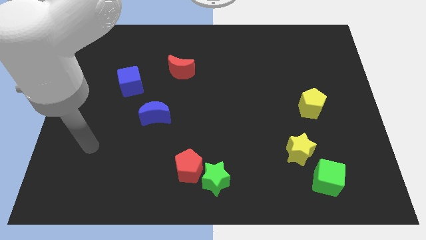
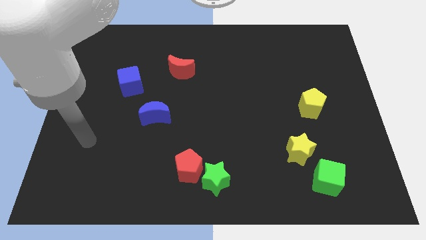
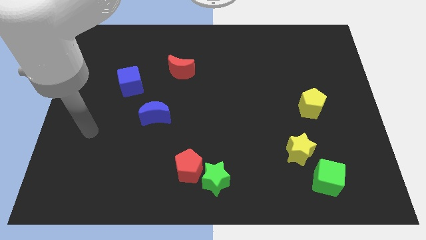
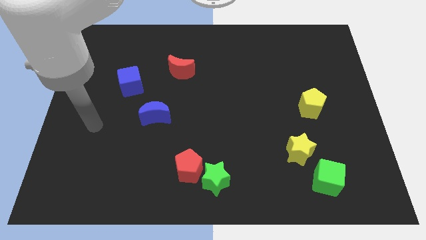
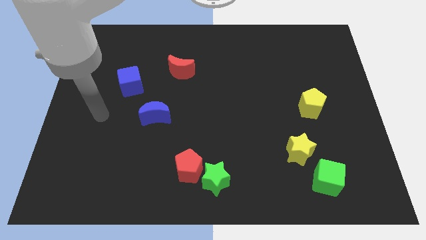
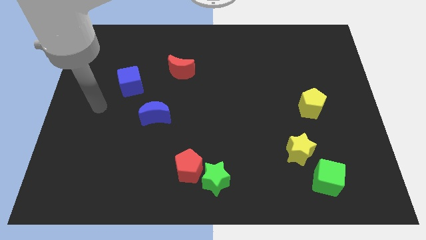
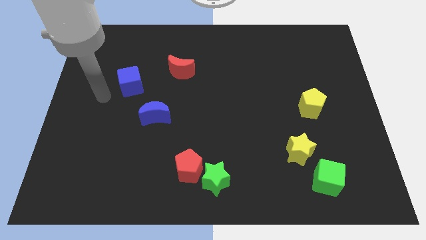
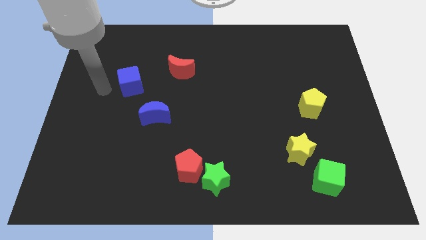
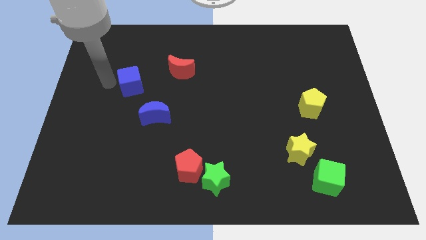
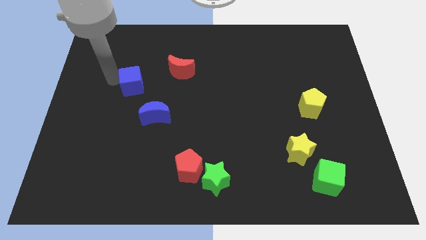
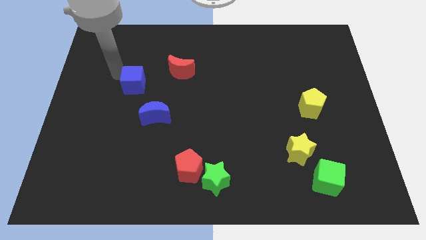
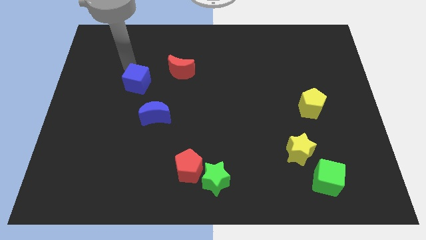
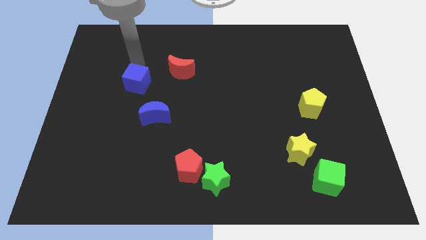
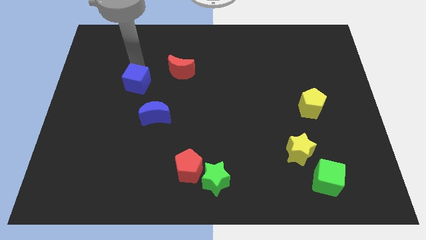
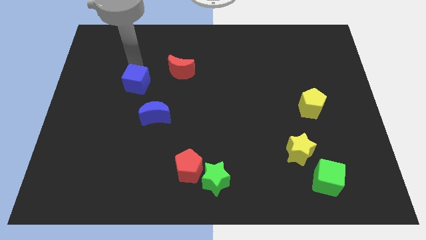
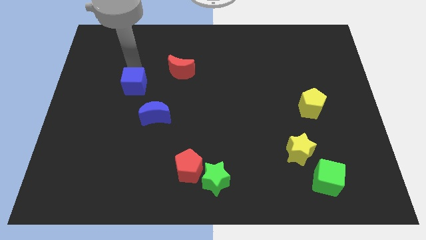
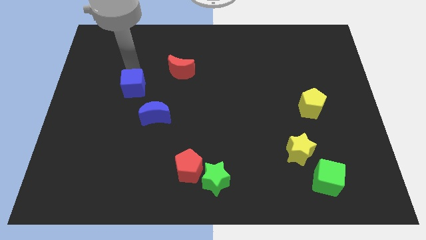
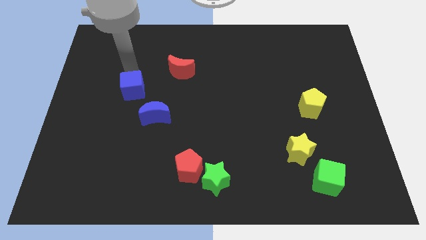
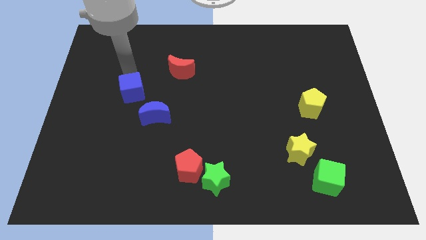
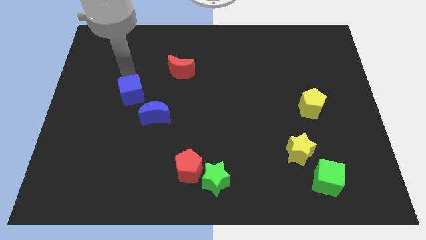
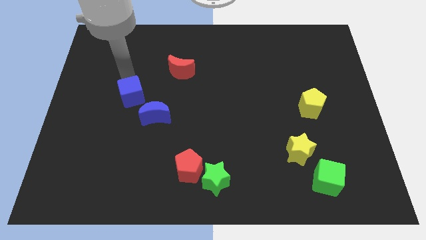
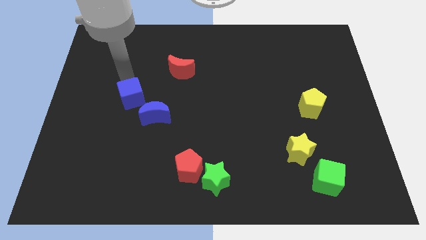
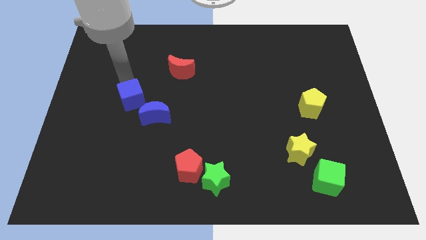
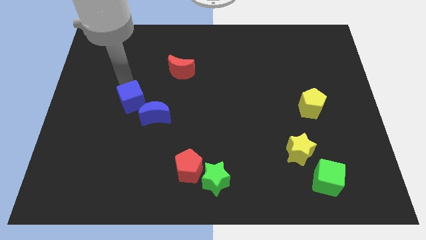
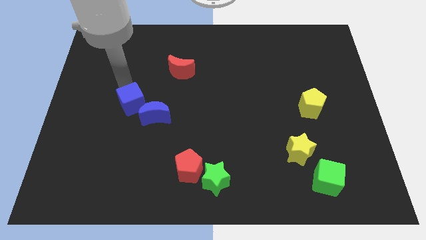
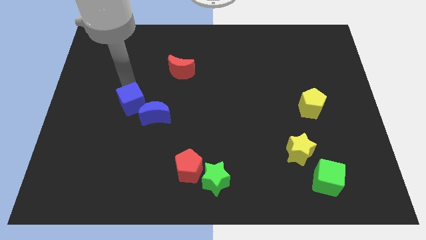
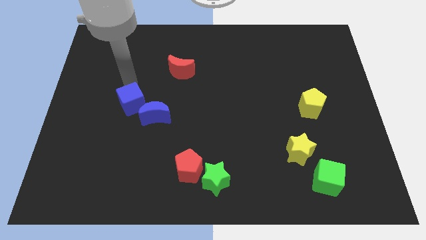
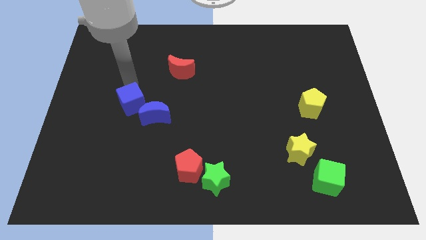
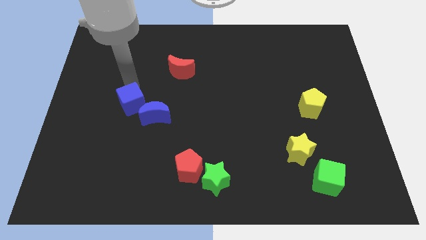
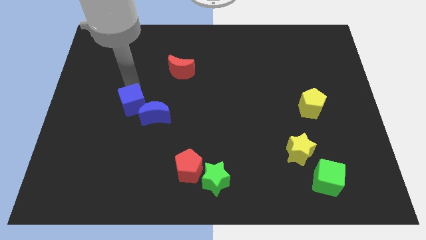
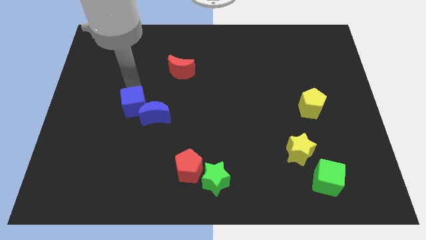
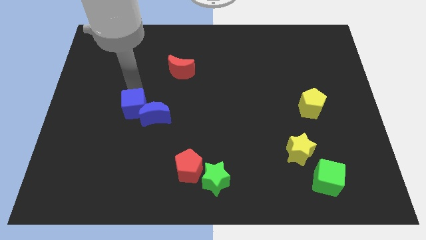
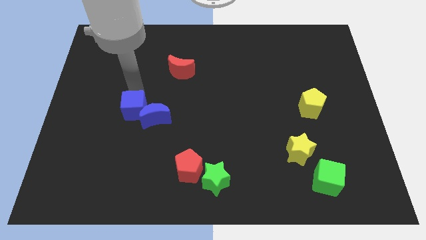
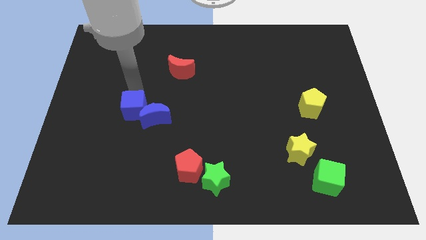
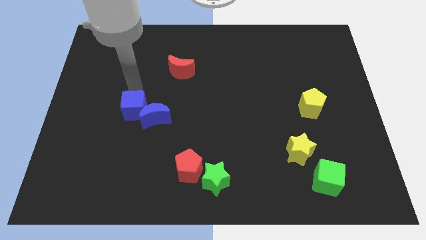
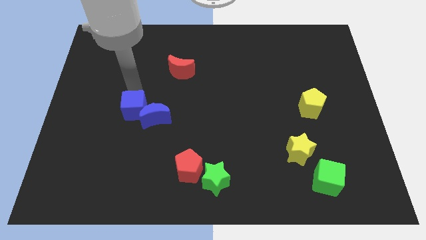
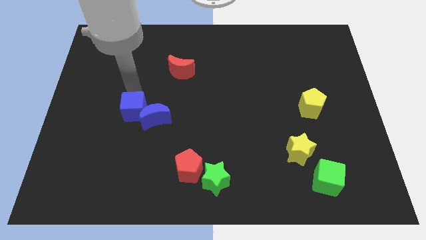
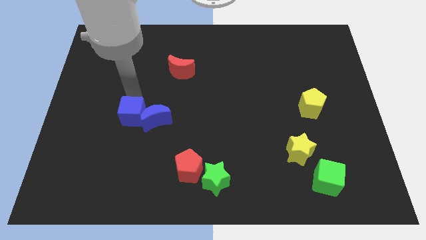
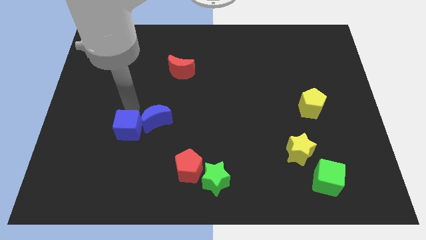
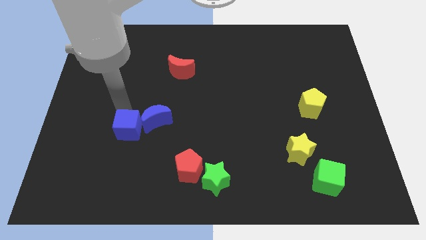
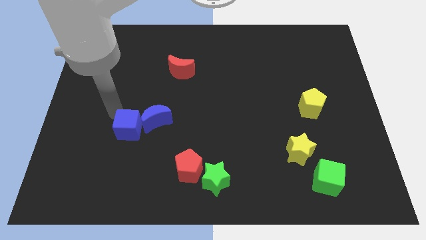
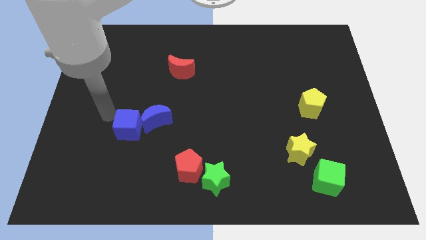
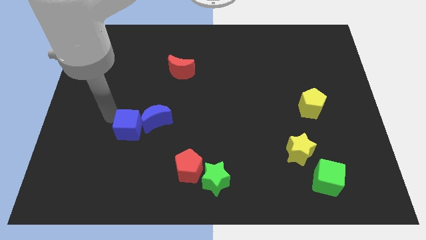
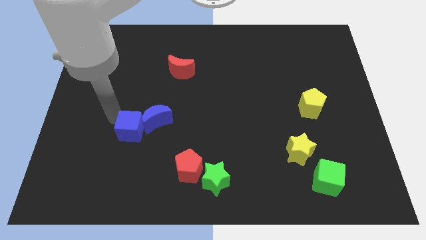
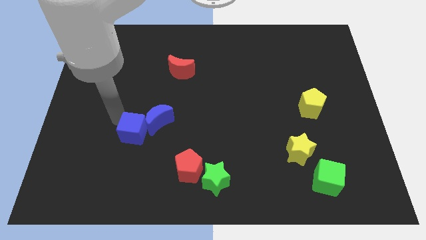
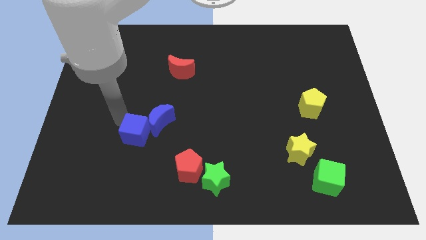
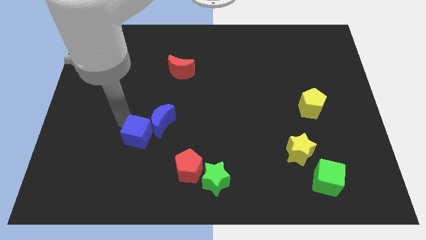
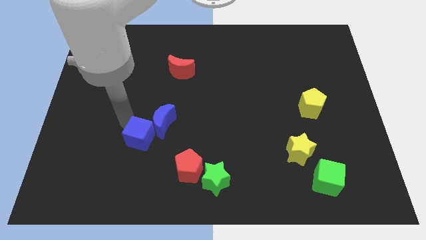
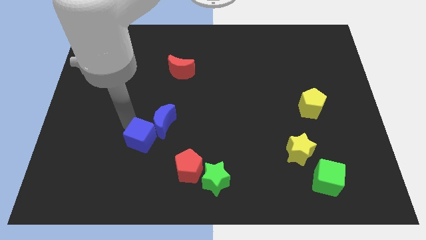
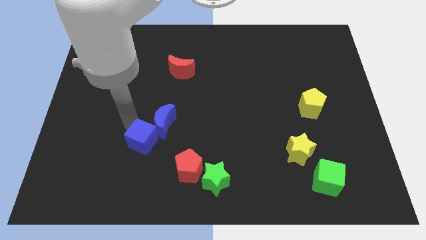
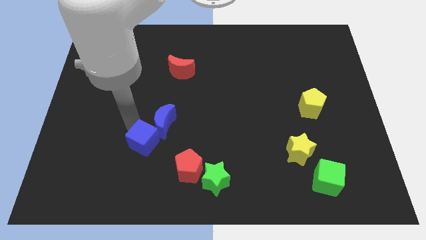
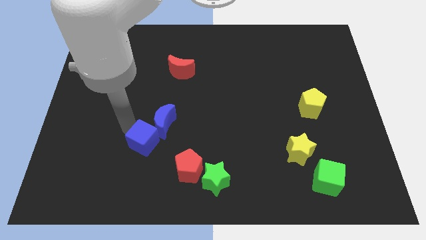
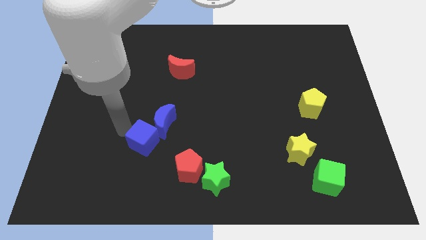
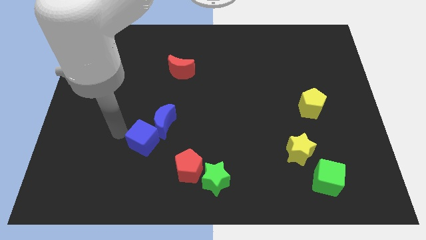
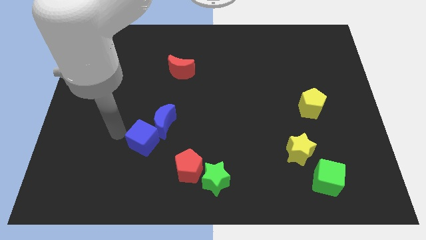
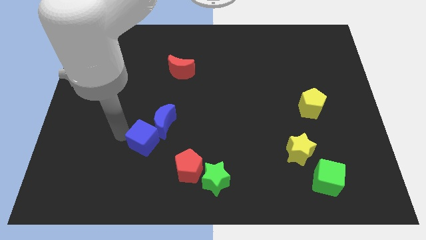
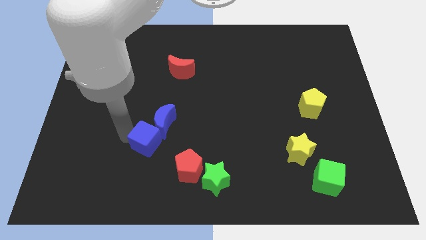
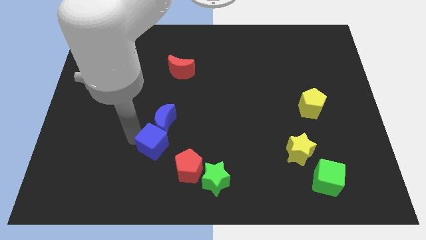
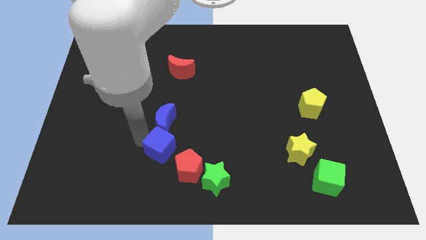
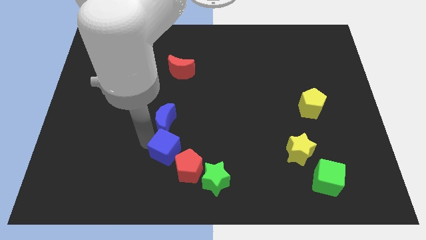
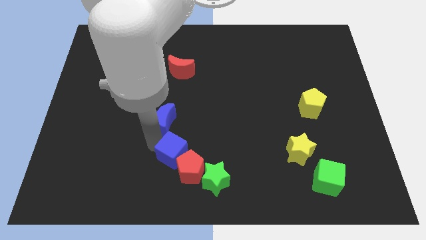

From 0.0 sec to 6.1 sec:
push the blue cube towards the red pentagon

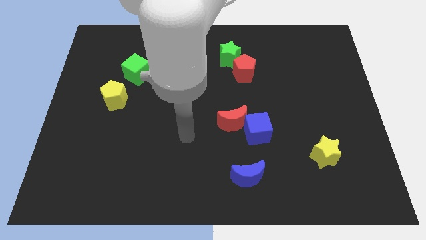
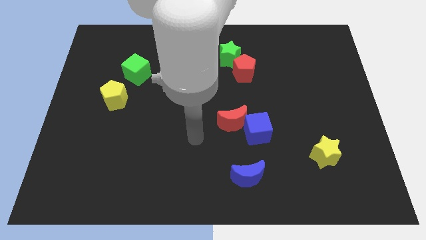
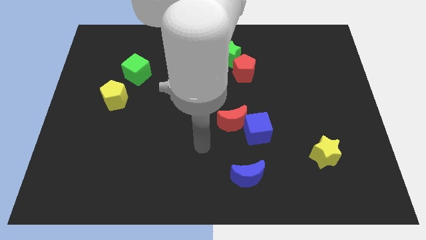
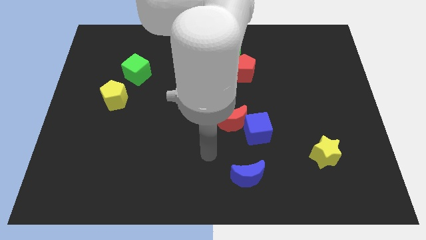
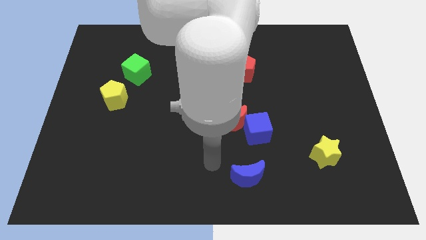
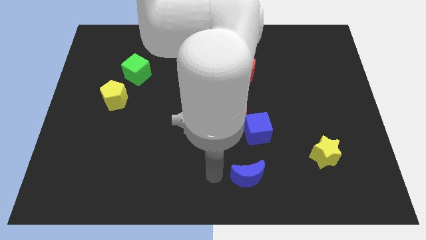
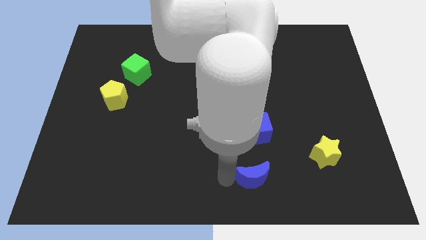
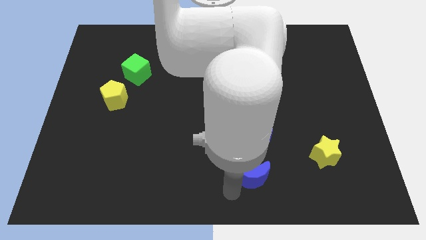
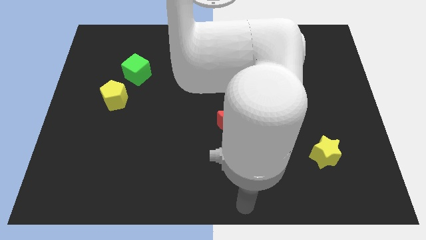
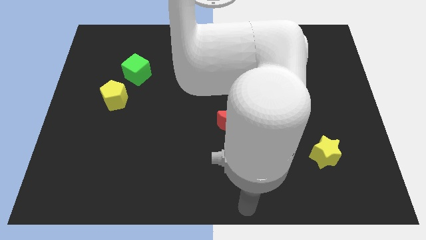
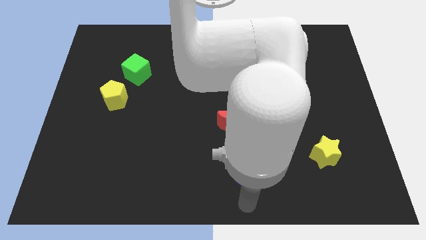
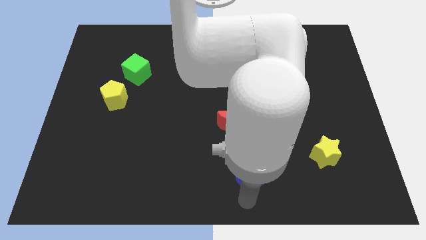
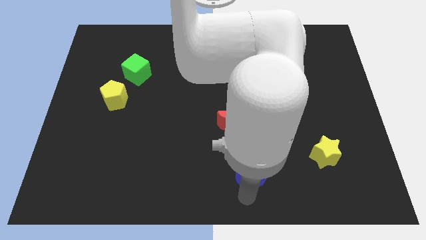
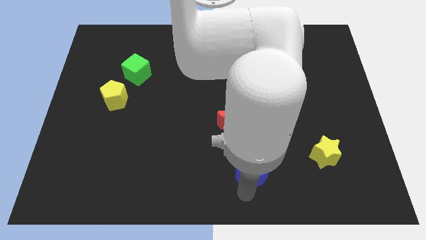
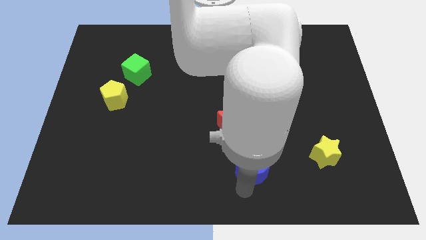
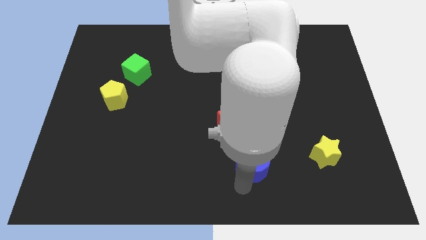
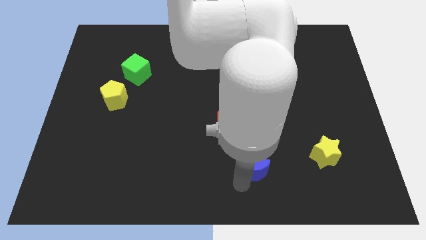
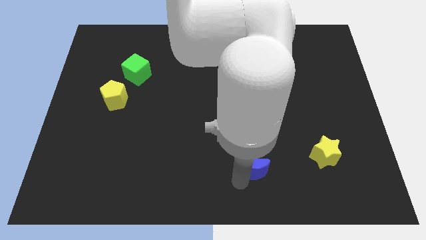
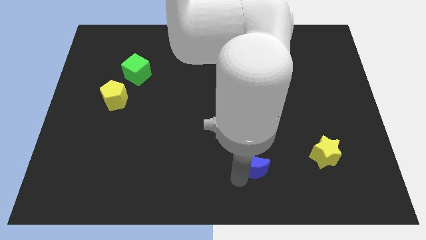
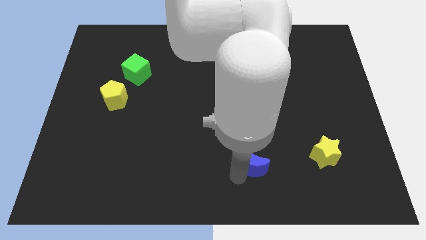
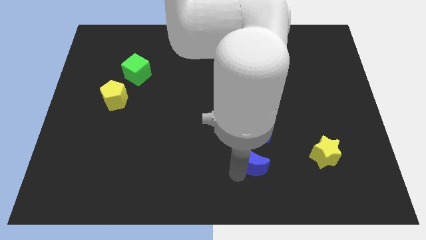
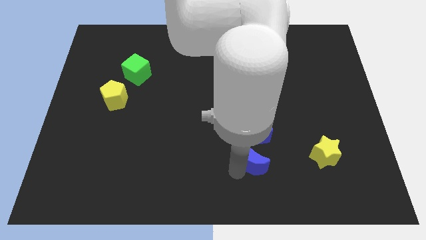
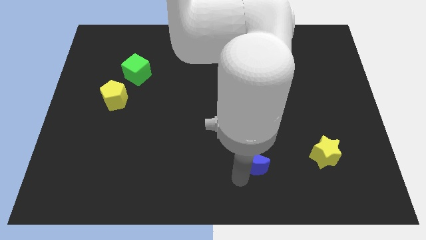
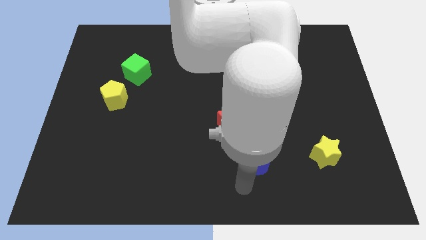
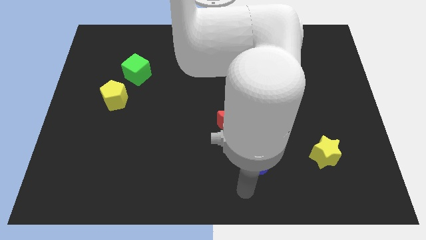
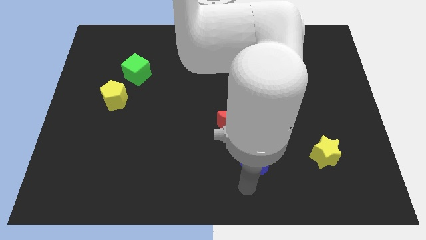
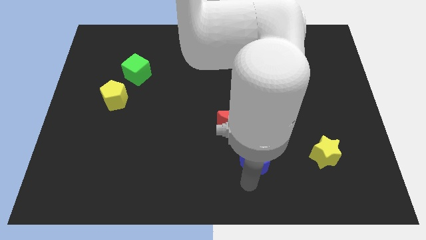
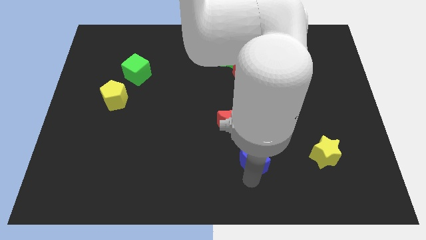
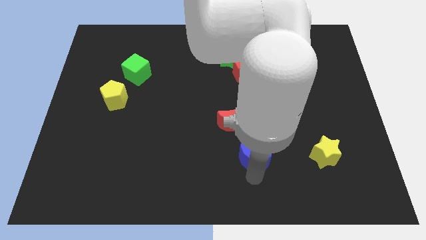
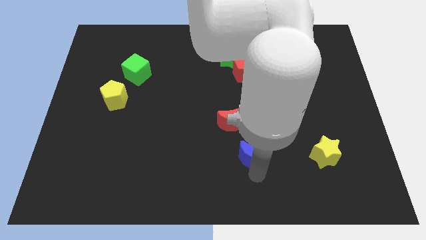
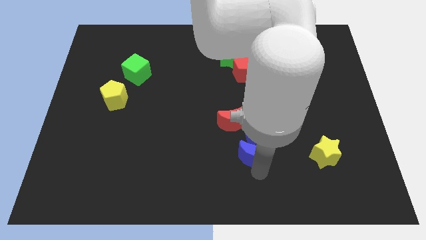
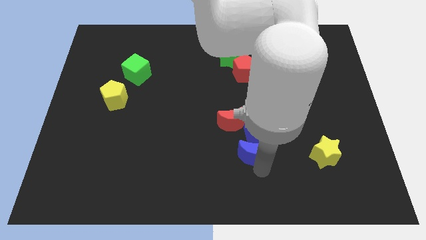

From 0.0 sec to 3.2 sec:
put the blue moon close to the blue cube
